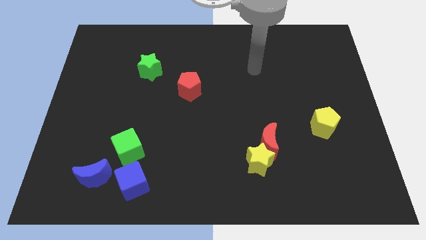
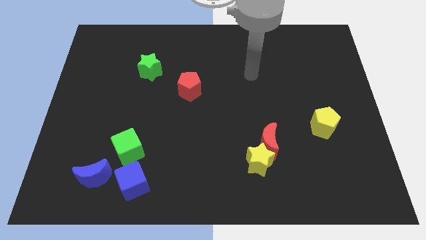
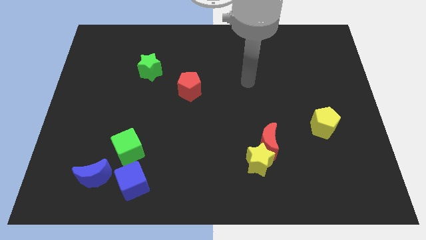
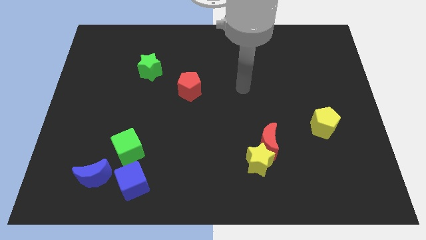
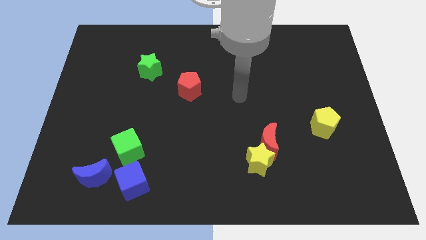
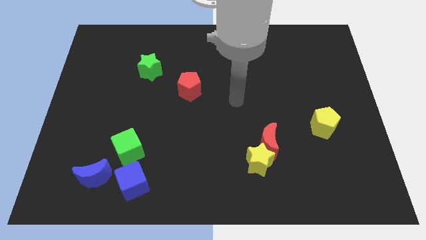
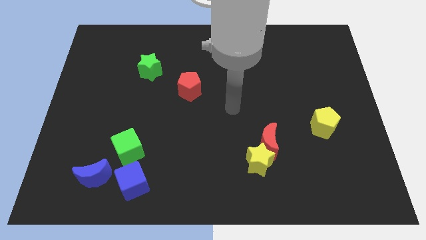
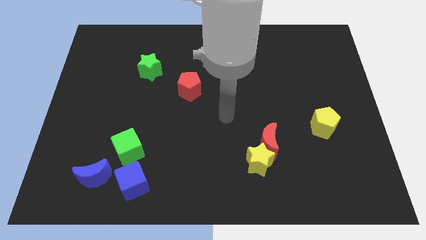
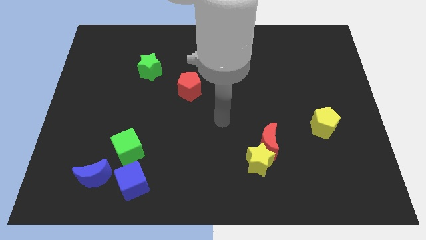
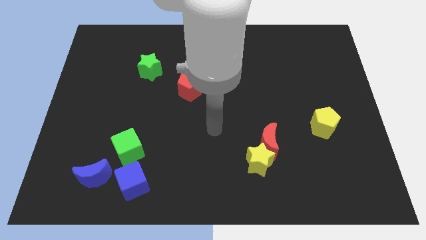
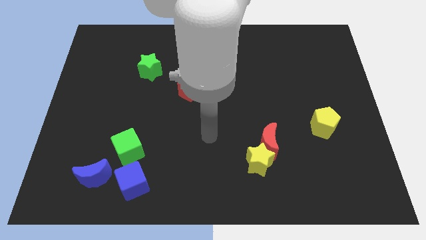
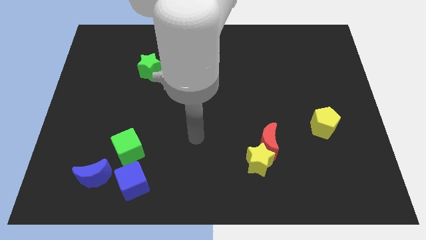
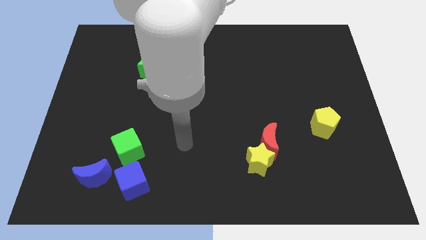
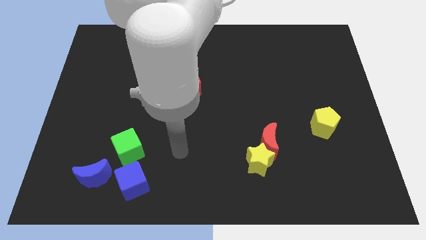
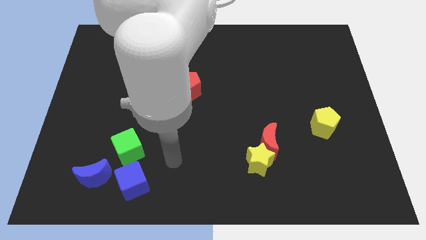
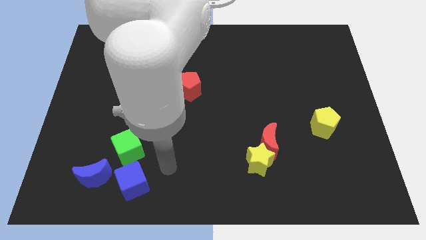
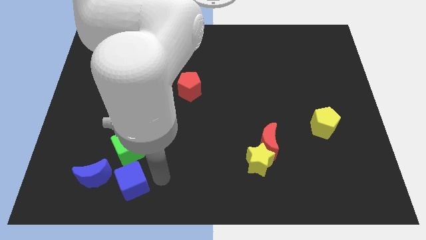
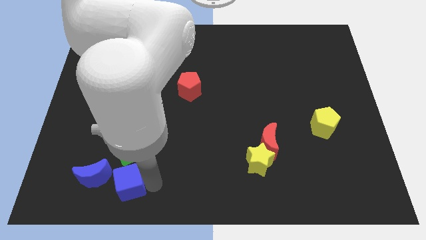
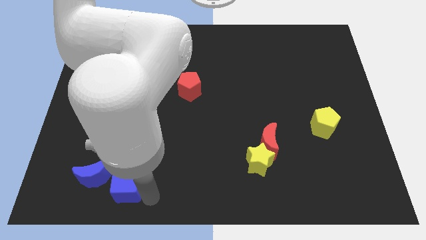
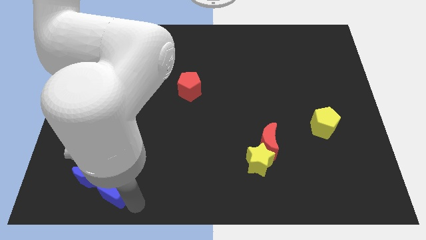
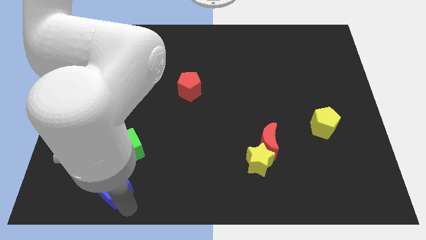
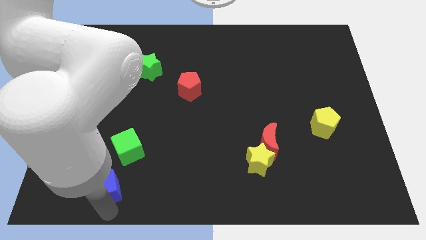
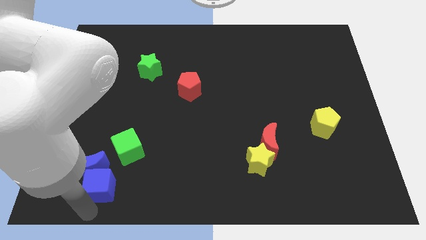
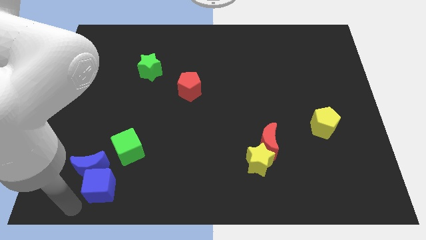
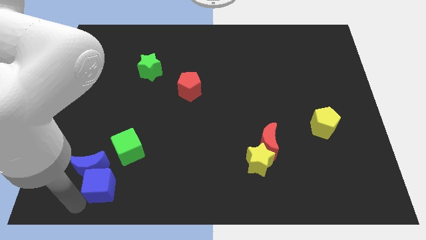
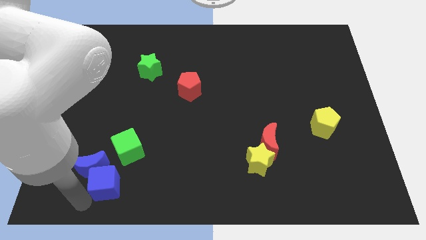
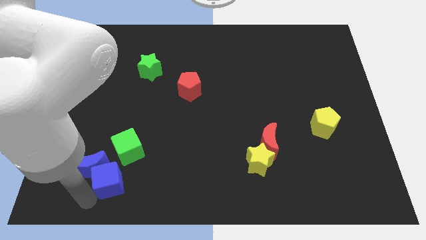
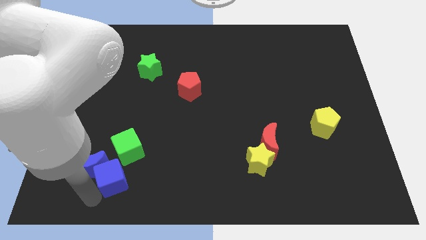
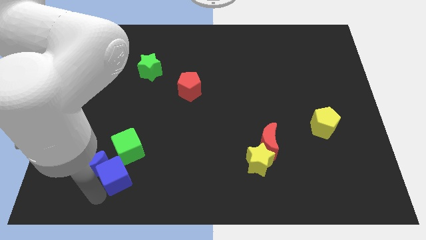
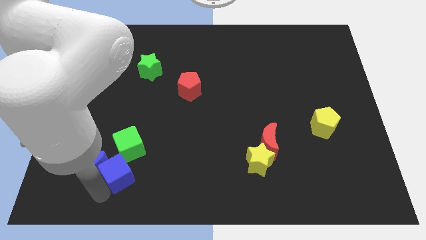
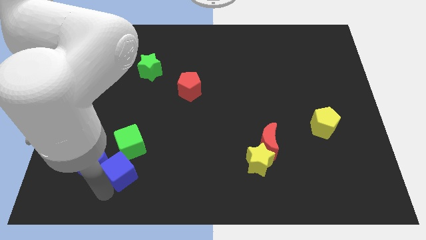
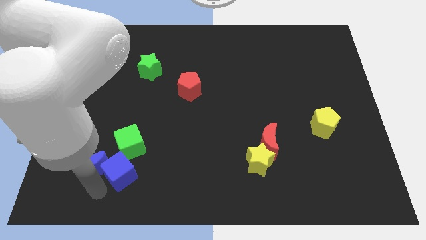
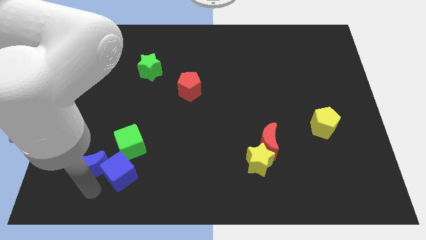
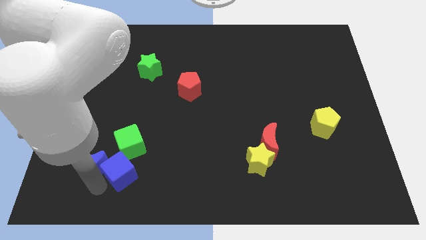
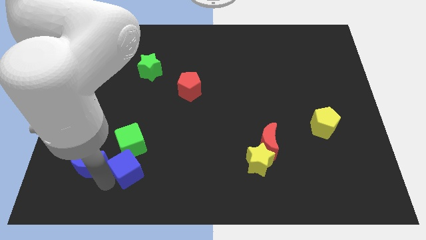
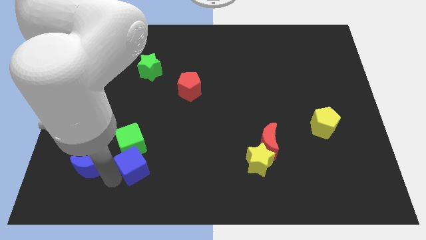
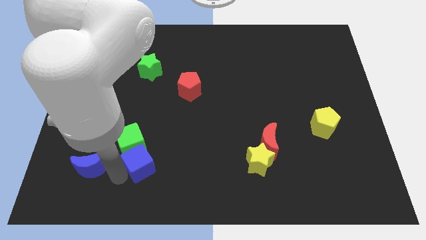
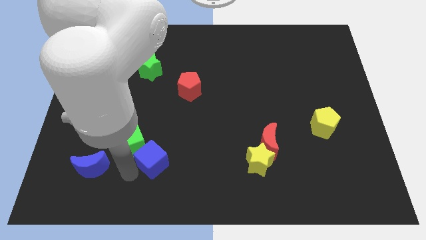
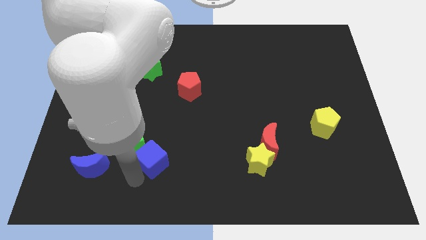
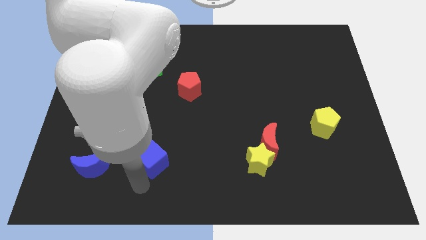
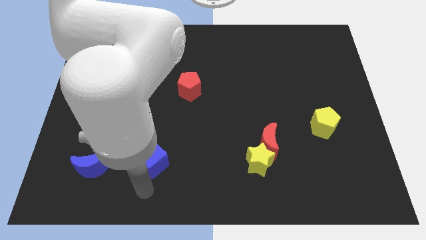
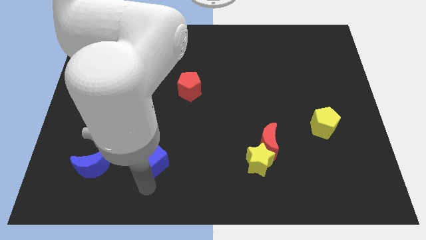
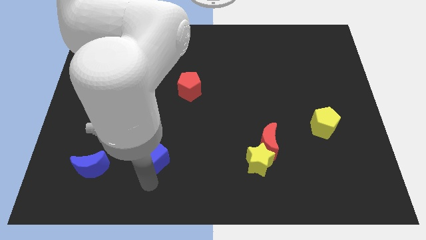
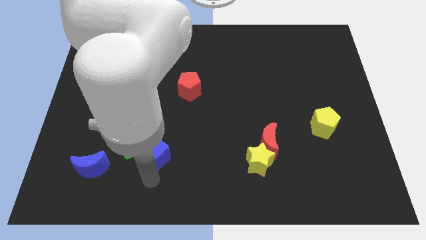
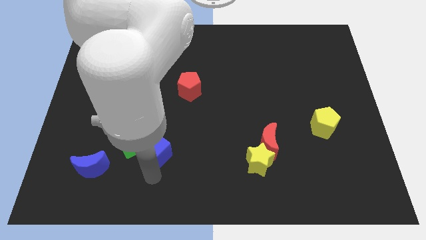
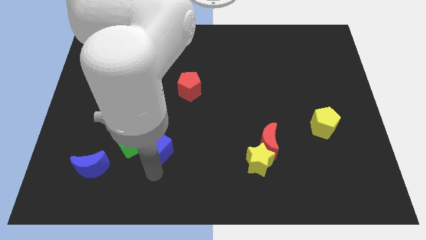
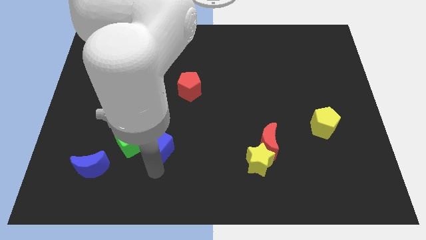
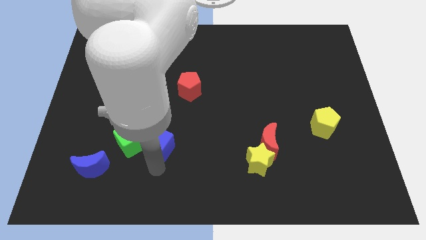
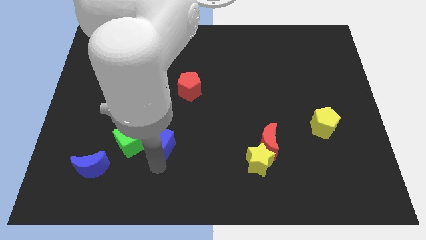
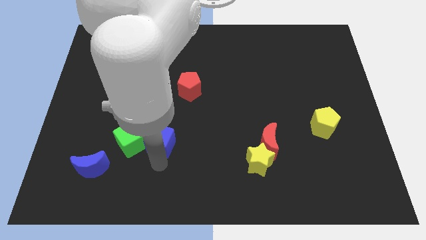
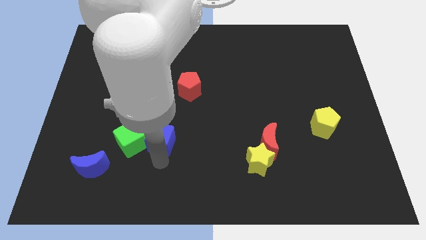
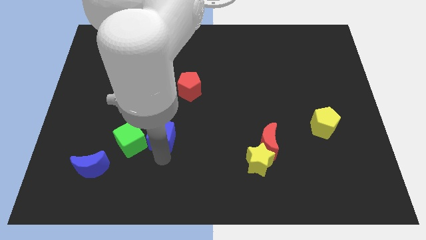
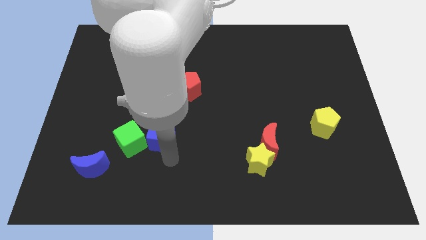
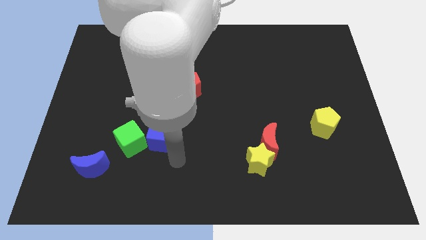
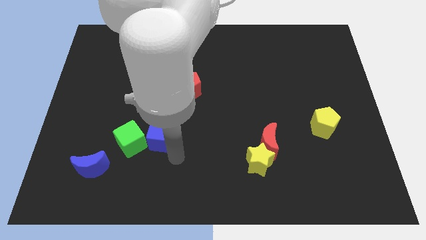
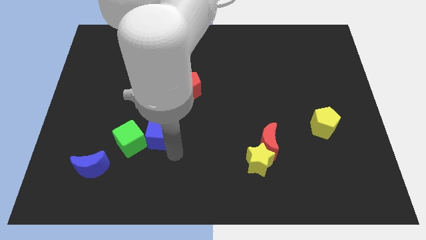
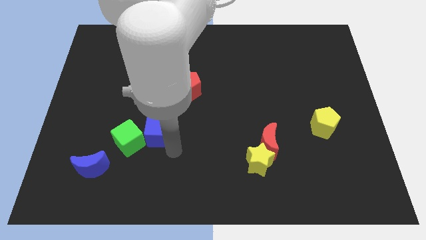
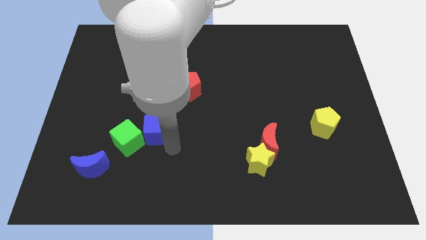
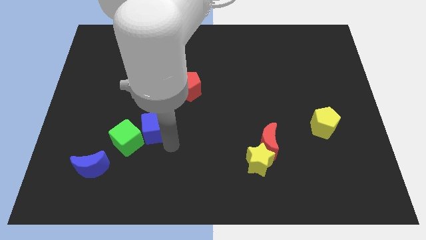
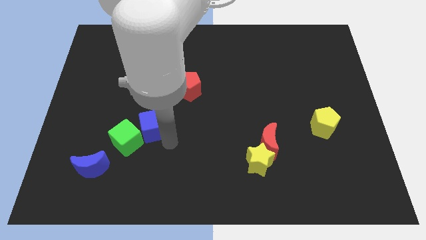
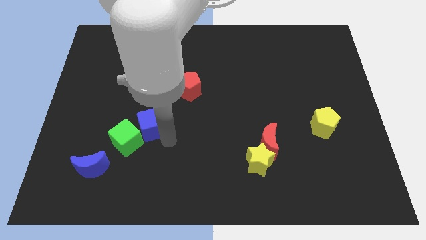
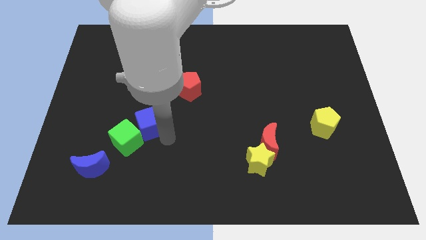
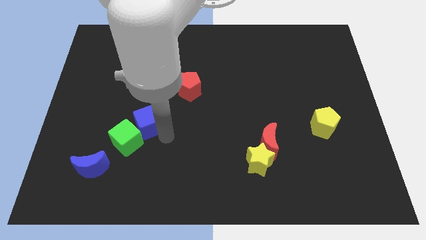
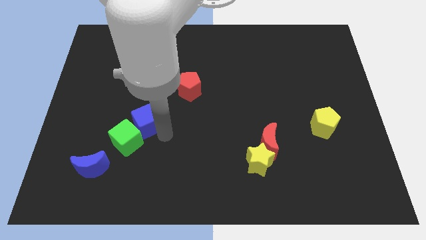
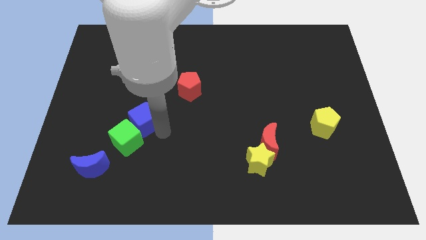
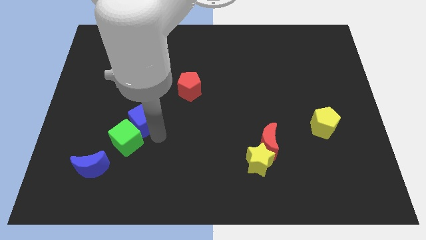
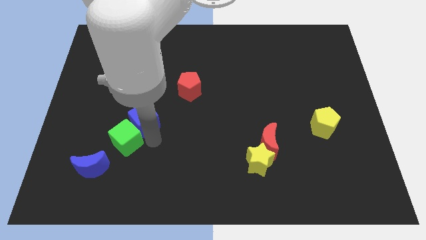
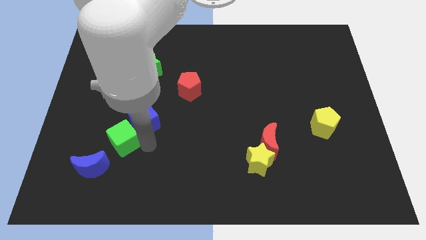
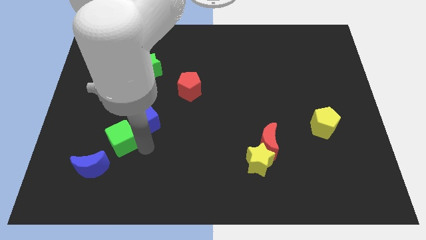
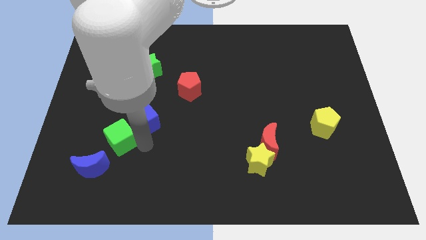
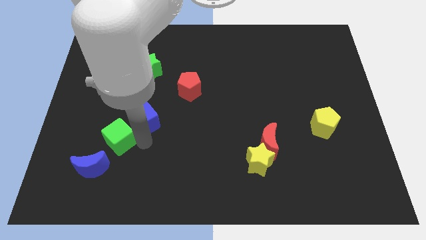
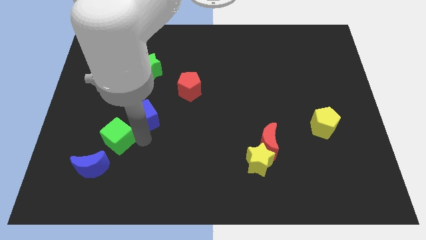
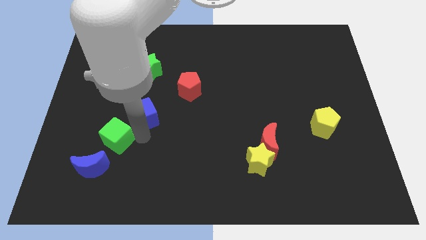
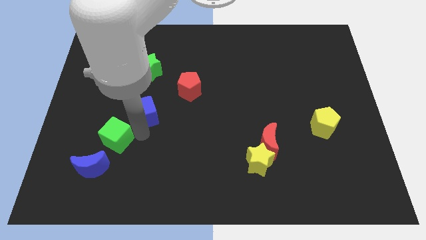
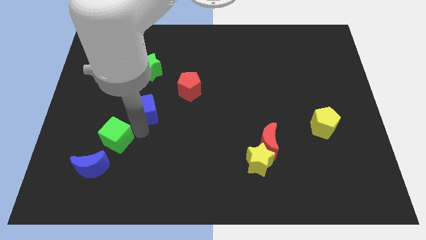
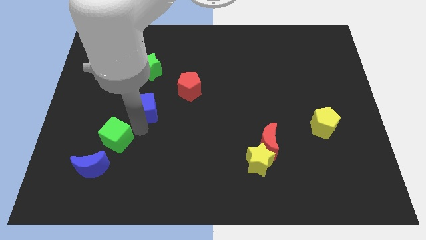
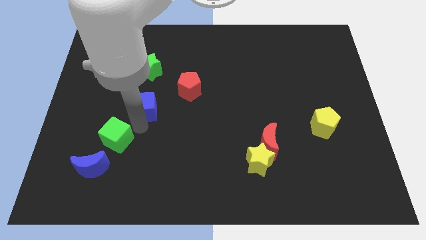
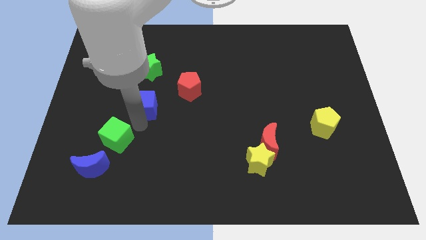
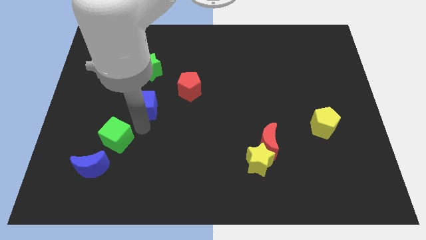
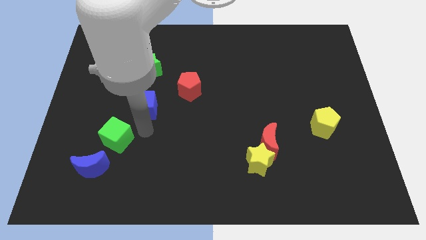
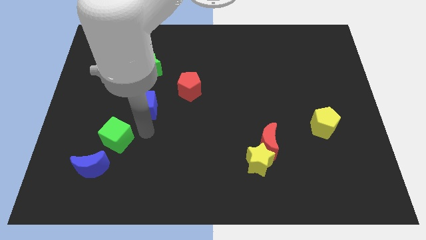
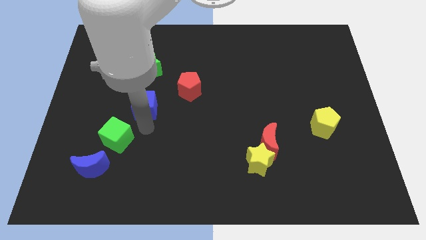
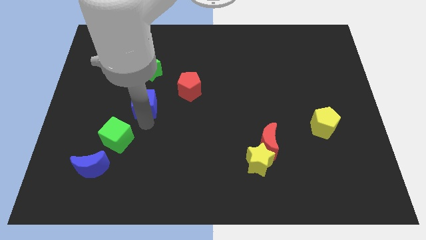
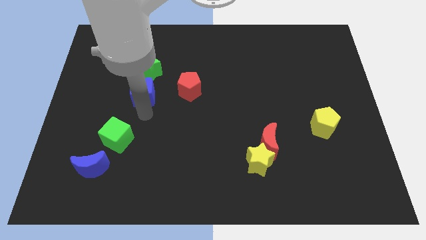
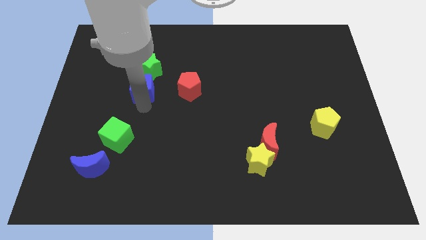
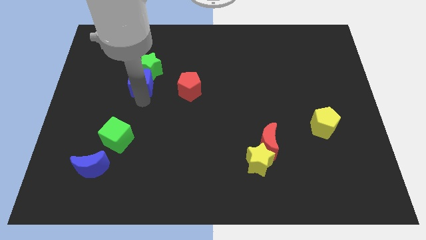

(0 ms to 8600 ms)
put the blue cube to the green star
